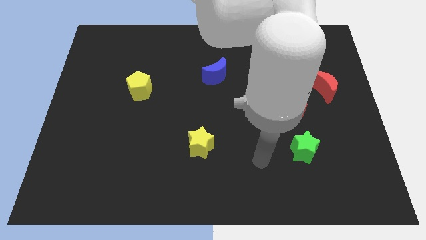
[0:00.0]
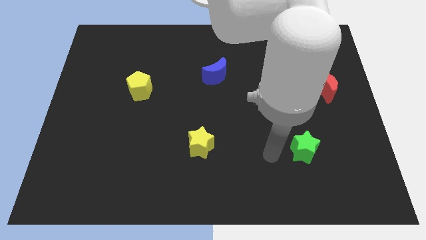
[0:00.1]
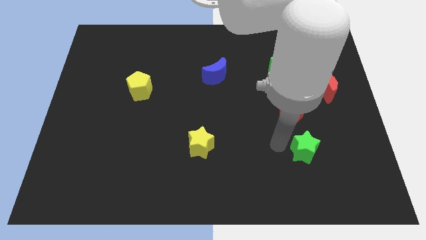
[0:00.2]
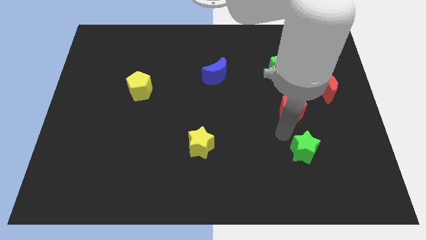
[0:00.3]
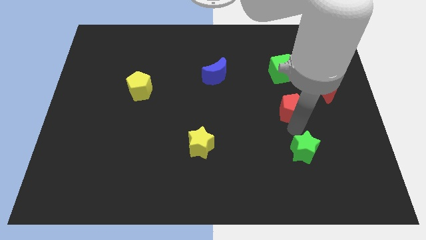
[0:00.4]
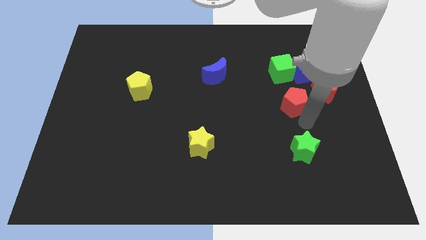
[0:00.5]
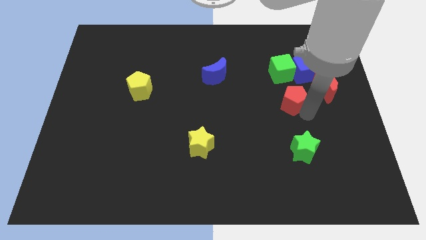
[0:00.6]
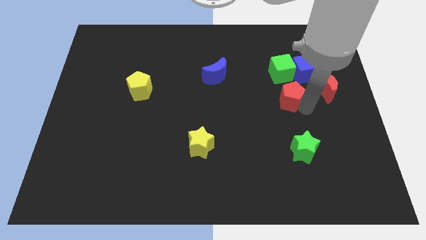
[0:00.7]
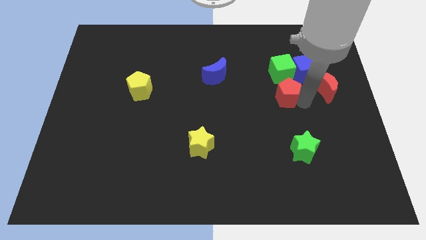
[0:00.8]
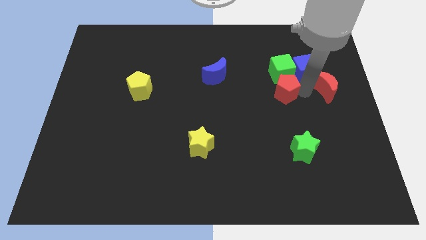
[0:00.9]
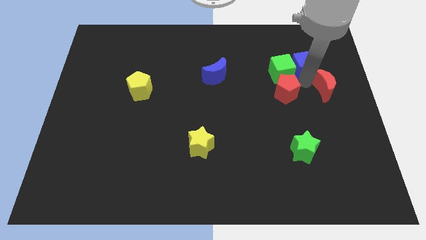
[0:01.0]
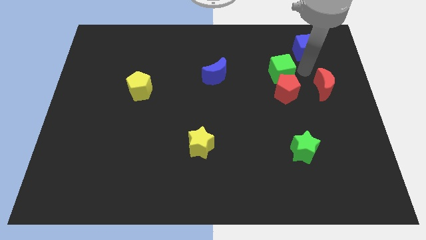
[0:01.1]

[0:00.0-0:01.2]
separate the green cube from the blue cube

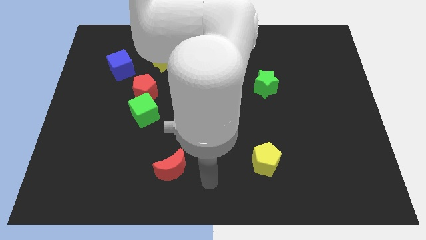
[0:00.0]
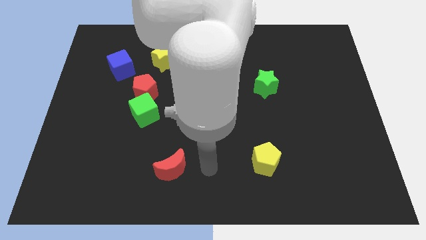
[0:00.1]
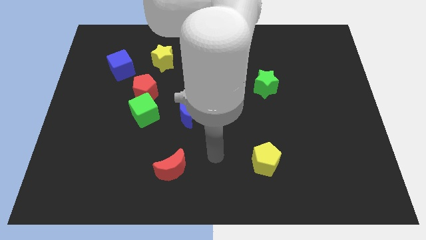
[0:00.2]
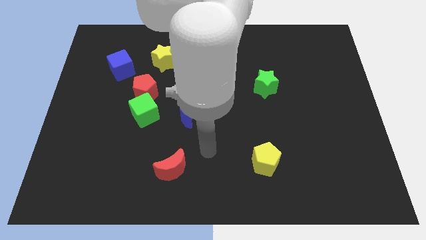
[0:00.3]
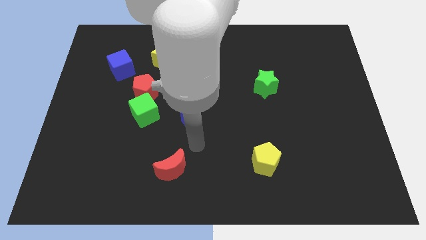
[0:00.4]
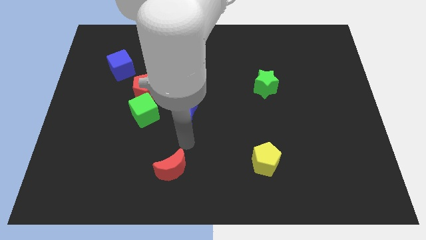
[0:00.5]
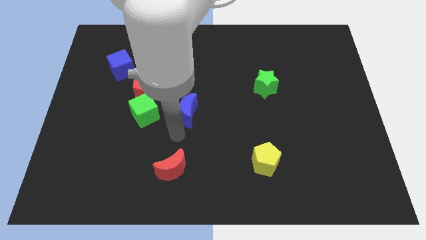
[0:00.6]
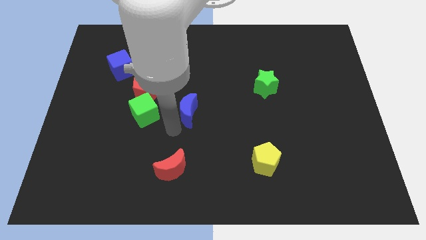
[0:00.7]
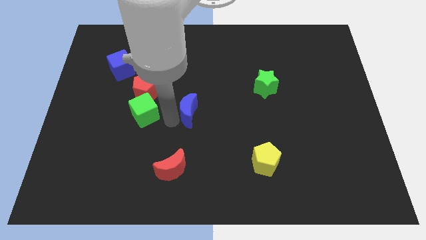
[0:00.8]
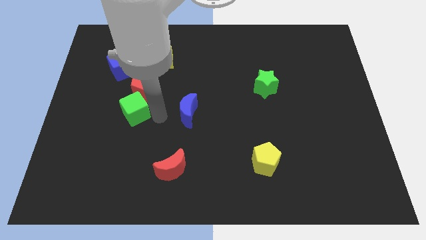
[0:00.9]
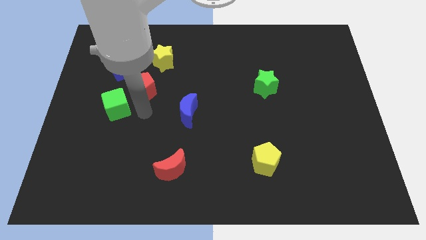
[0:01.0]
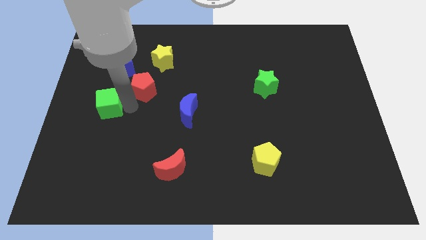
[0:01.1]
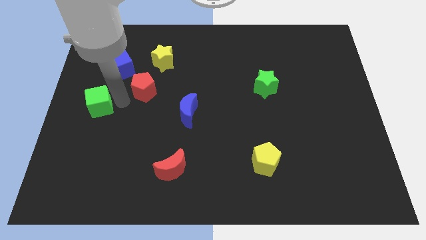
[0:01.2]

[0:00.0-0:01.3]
move the red pentagon away from the green cube

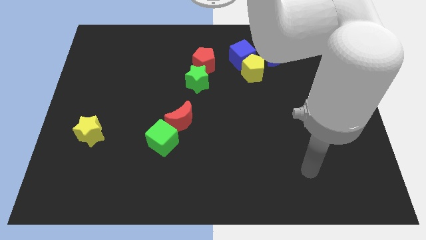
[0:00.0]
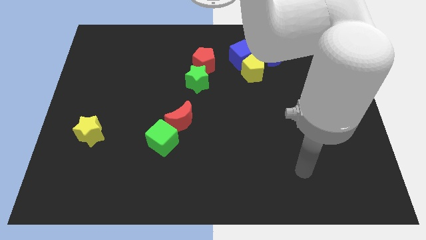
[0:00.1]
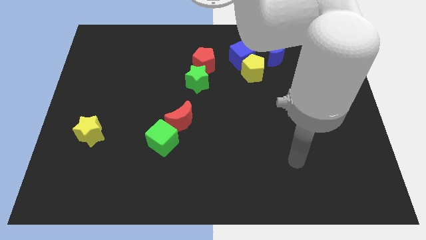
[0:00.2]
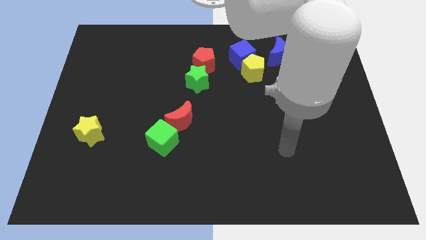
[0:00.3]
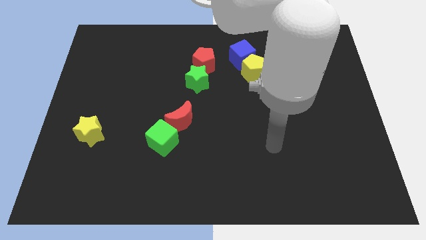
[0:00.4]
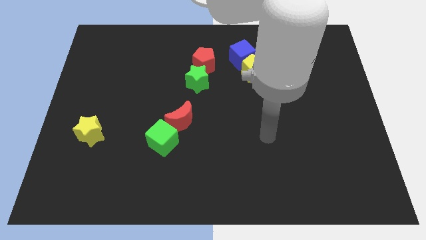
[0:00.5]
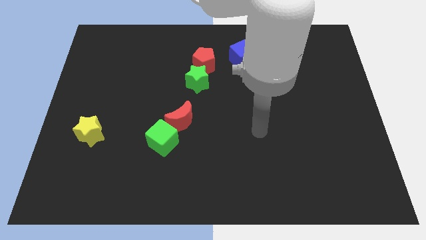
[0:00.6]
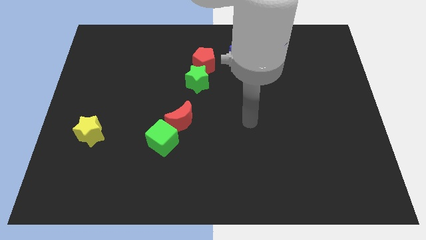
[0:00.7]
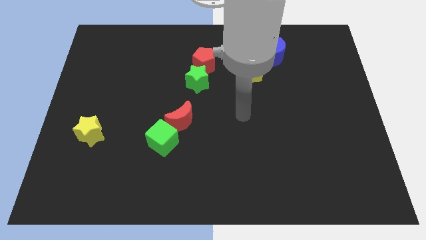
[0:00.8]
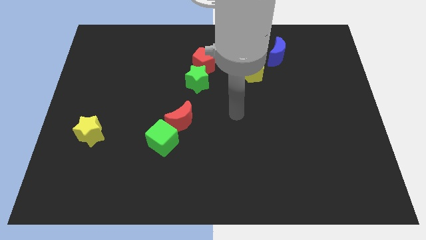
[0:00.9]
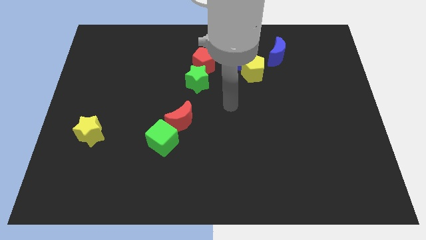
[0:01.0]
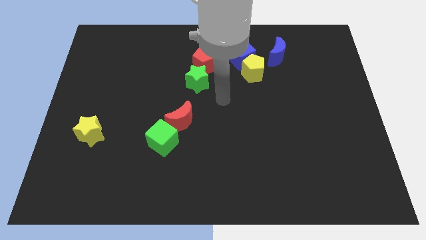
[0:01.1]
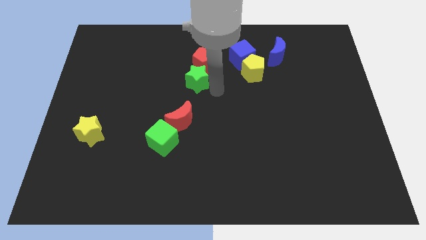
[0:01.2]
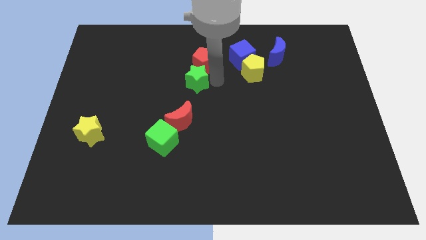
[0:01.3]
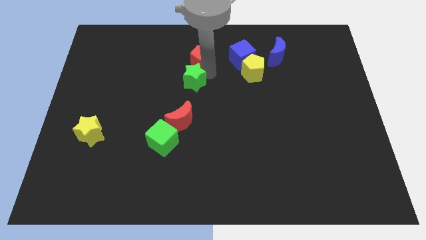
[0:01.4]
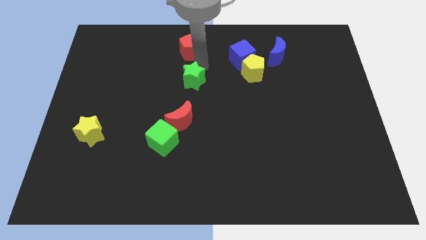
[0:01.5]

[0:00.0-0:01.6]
separate the green star from the red pentagon

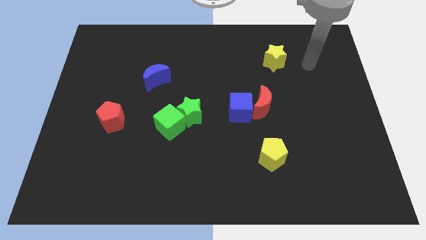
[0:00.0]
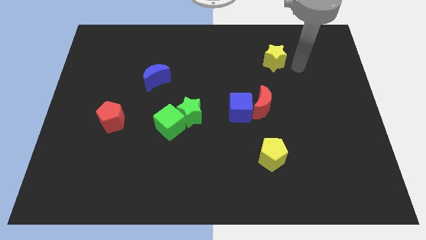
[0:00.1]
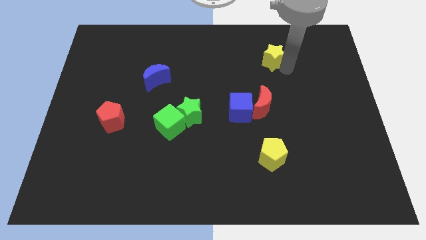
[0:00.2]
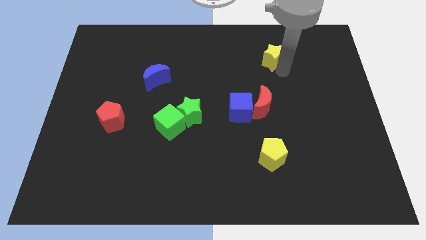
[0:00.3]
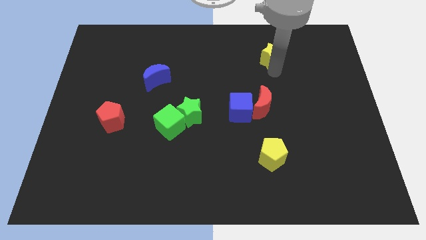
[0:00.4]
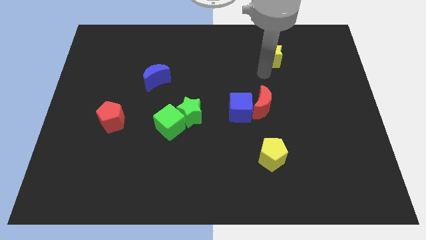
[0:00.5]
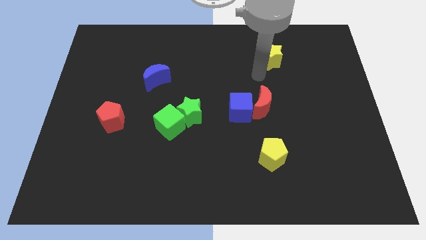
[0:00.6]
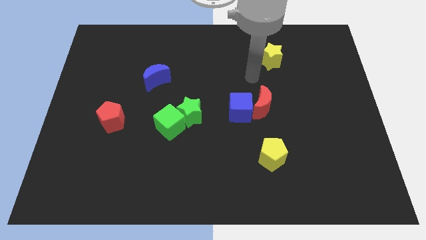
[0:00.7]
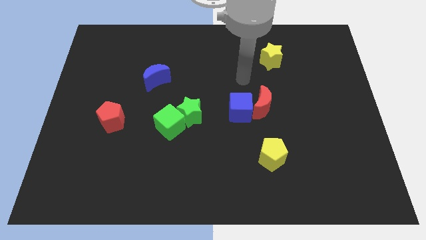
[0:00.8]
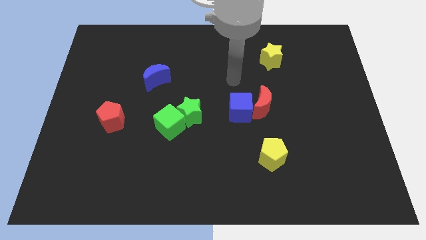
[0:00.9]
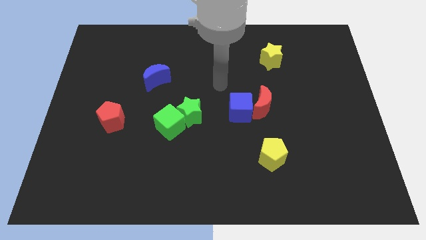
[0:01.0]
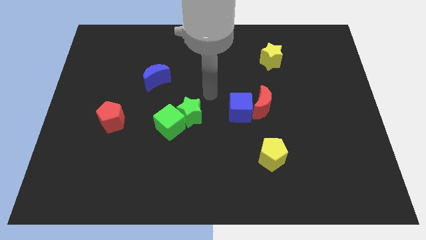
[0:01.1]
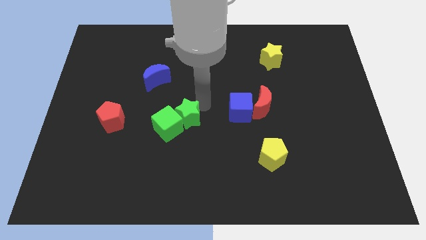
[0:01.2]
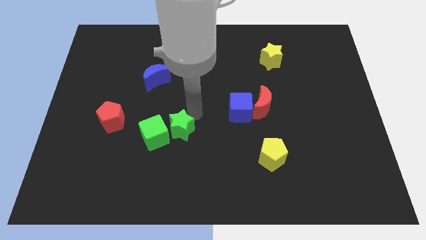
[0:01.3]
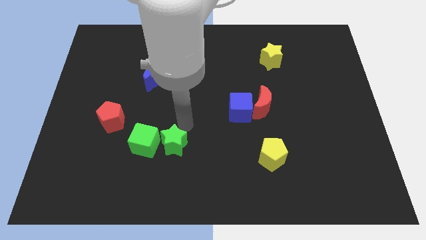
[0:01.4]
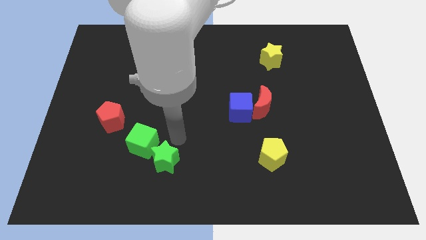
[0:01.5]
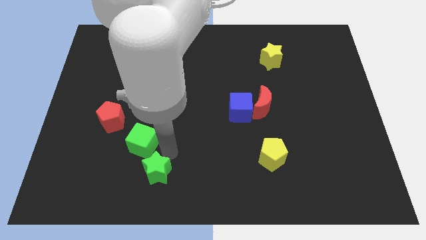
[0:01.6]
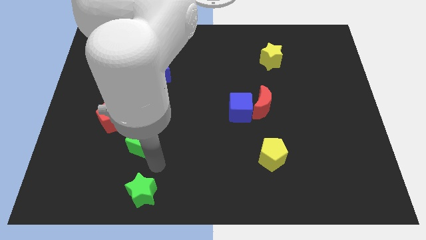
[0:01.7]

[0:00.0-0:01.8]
separate the green cube from the green star

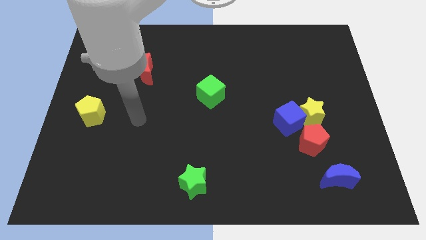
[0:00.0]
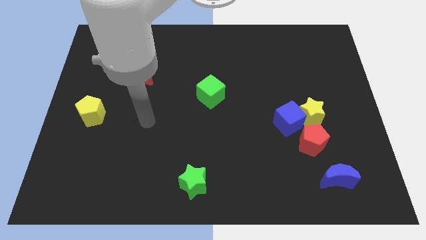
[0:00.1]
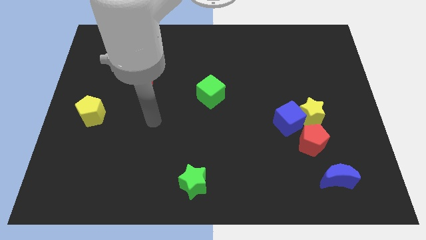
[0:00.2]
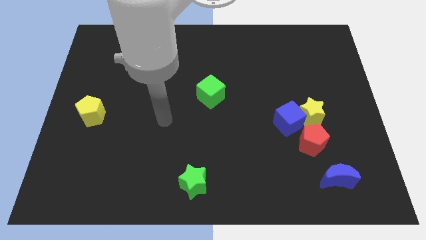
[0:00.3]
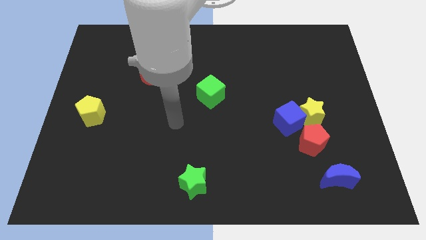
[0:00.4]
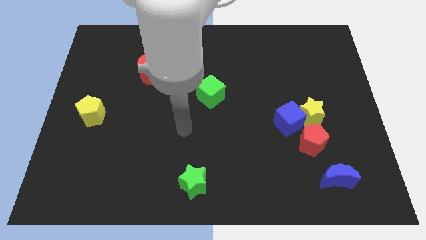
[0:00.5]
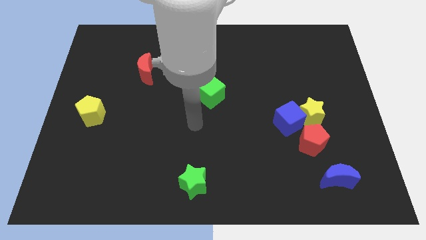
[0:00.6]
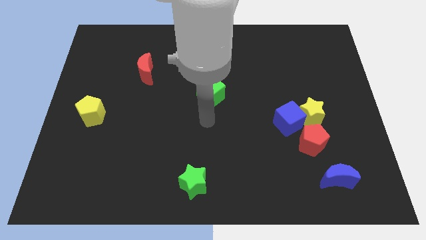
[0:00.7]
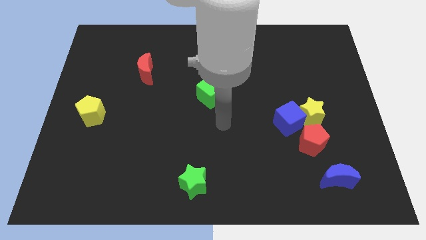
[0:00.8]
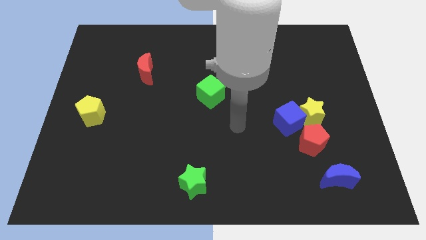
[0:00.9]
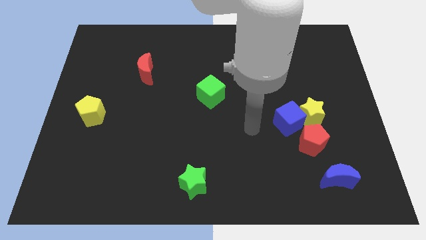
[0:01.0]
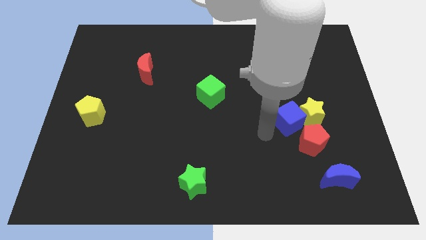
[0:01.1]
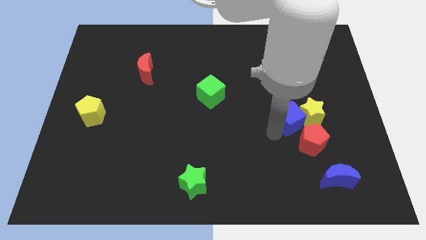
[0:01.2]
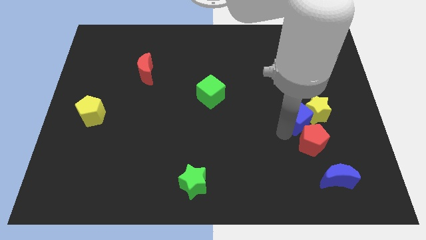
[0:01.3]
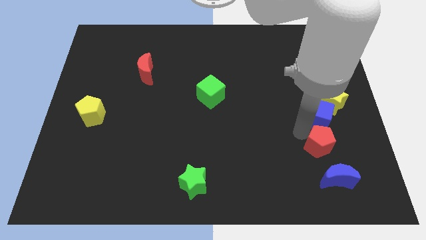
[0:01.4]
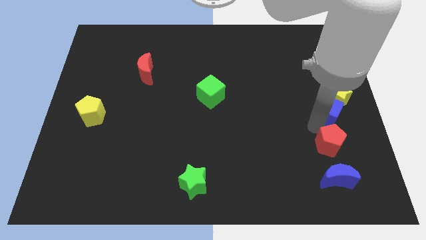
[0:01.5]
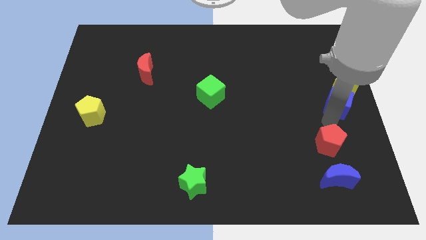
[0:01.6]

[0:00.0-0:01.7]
separate the yellow star from the blue cube and red pentagon

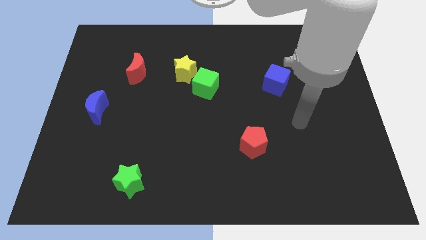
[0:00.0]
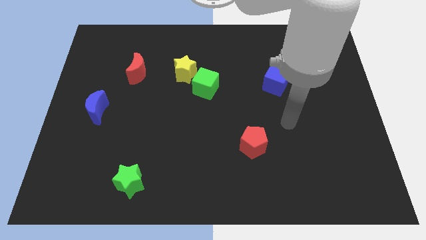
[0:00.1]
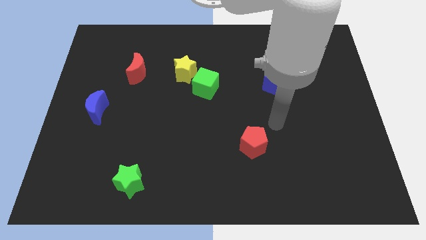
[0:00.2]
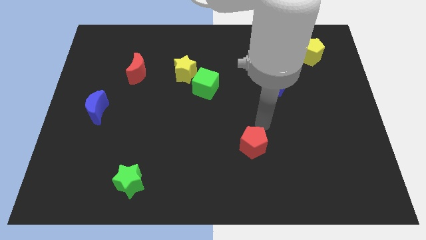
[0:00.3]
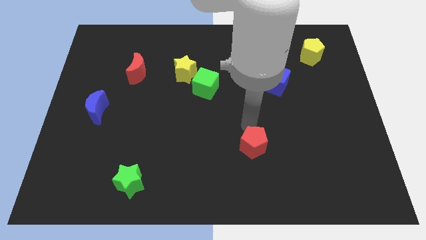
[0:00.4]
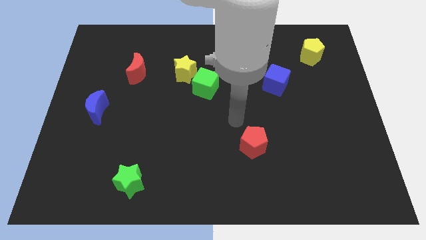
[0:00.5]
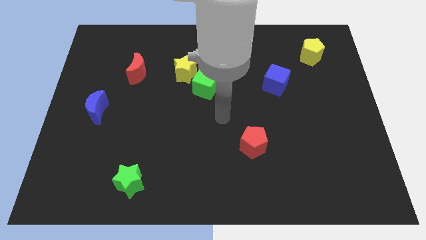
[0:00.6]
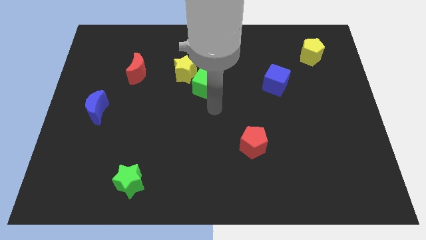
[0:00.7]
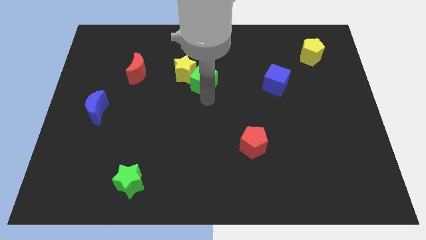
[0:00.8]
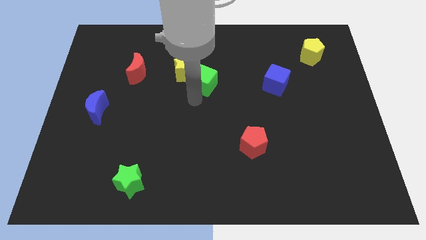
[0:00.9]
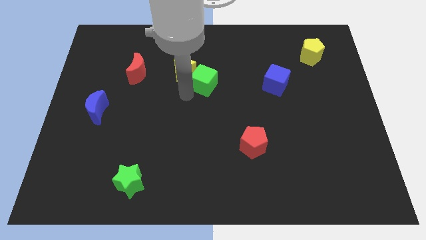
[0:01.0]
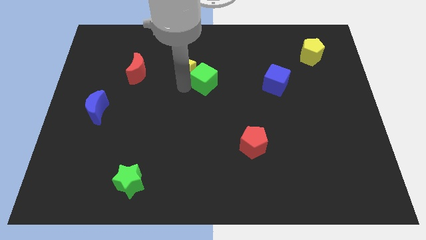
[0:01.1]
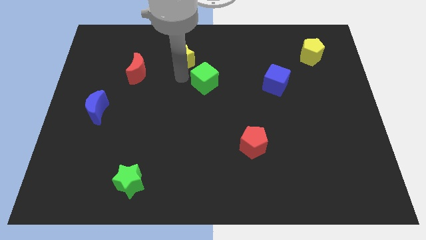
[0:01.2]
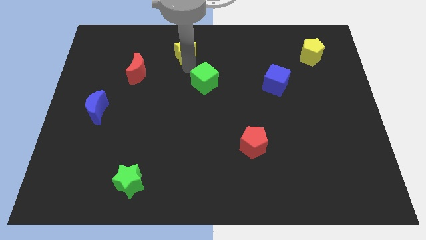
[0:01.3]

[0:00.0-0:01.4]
move the green cube away from the yellow star

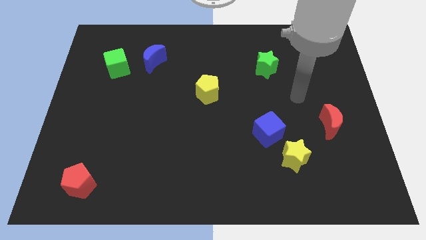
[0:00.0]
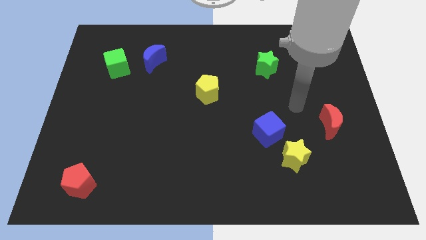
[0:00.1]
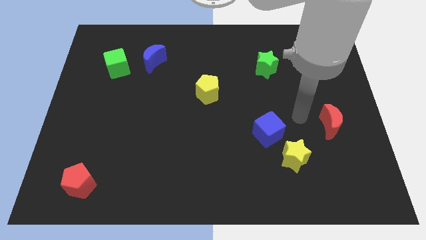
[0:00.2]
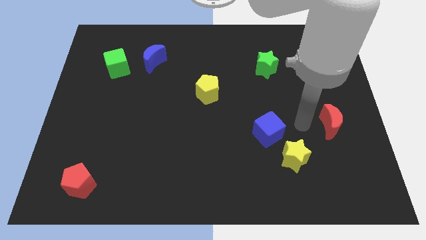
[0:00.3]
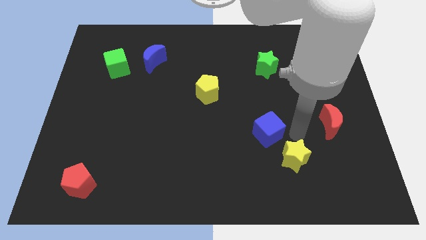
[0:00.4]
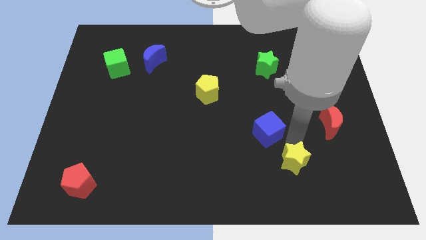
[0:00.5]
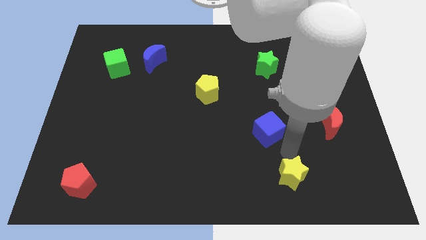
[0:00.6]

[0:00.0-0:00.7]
separate the blue cube from the yellow star
